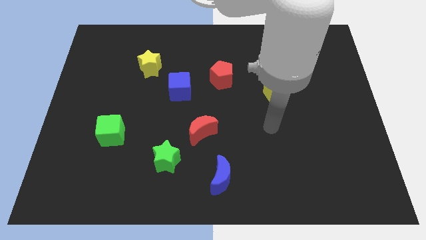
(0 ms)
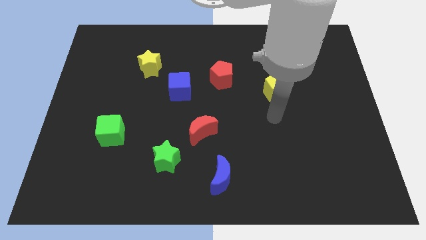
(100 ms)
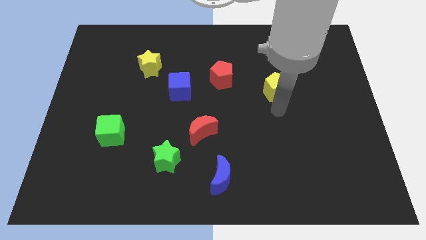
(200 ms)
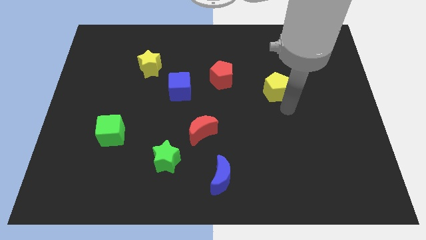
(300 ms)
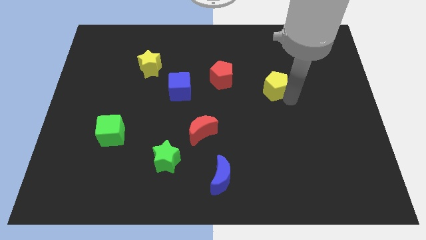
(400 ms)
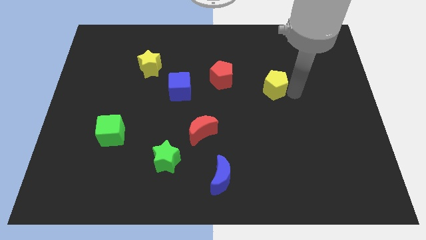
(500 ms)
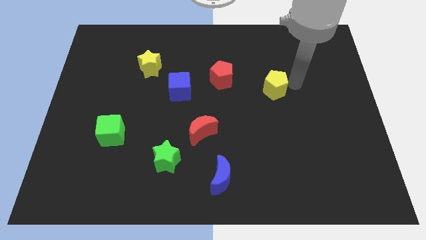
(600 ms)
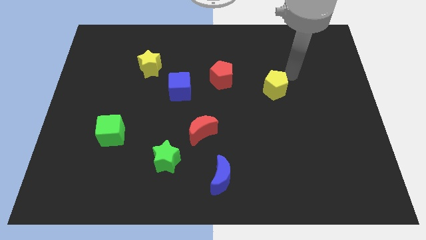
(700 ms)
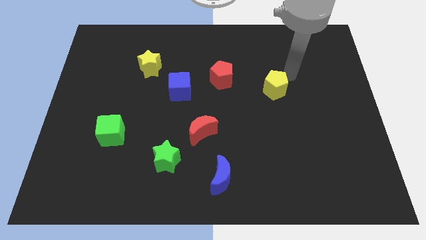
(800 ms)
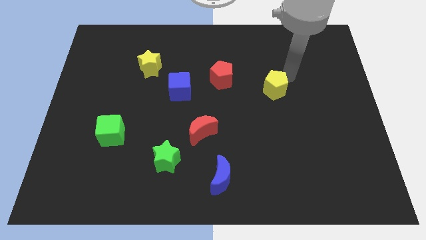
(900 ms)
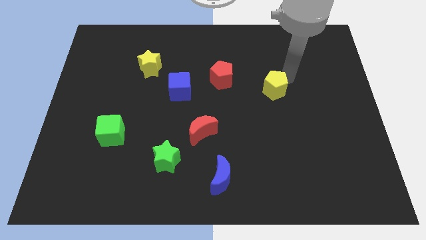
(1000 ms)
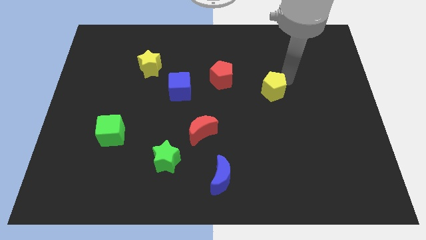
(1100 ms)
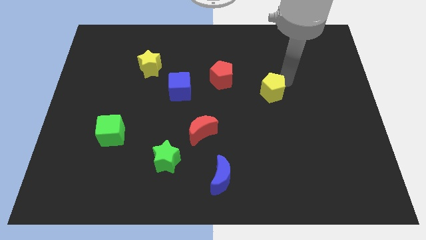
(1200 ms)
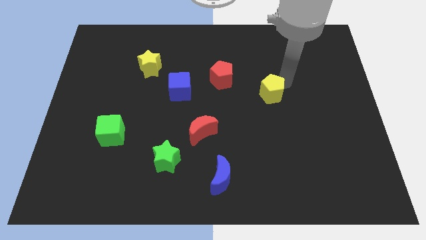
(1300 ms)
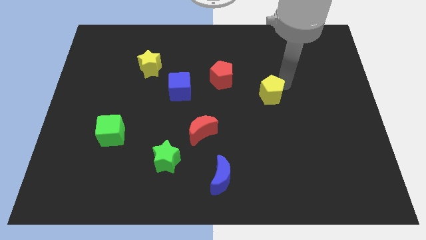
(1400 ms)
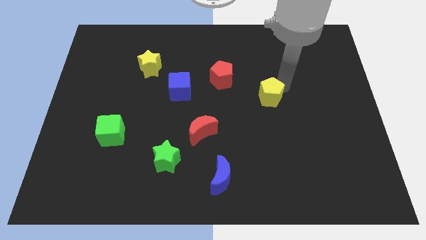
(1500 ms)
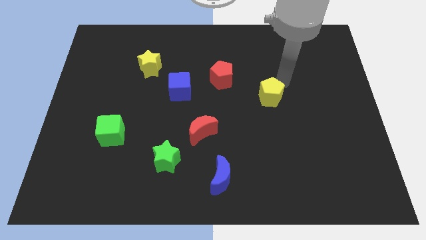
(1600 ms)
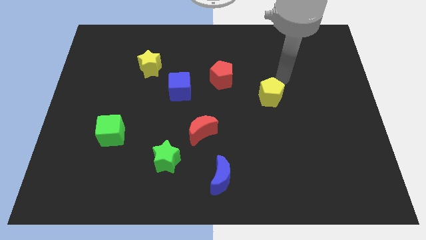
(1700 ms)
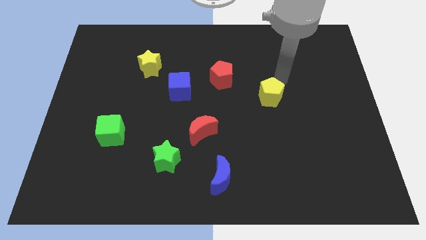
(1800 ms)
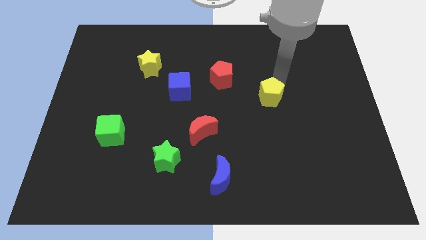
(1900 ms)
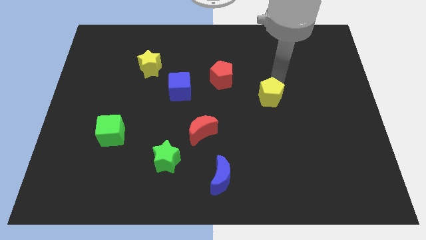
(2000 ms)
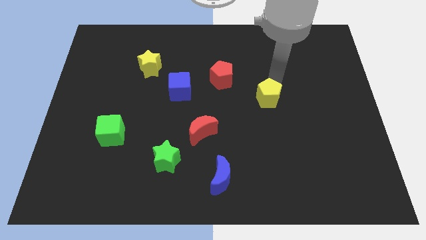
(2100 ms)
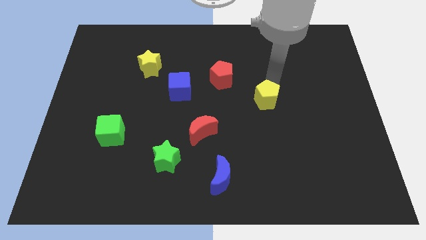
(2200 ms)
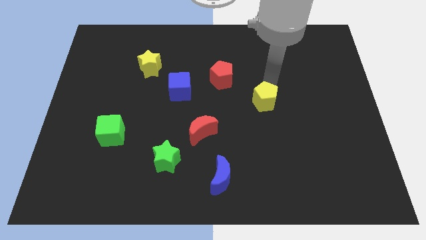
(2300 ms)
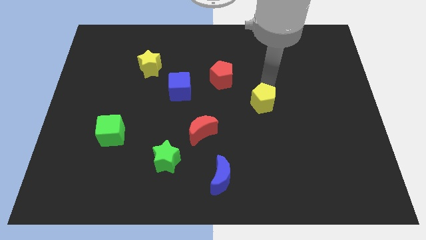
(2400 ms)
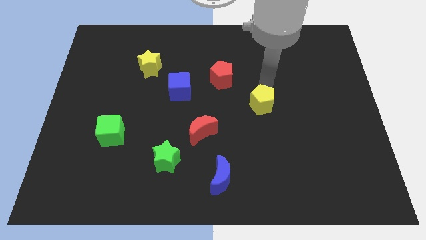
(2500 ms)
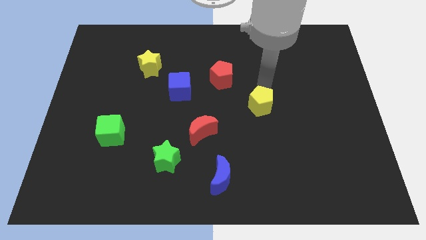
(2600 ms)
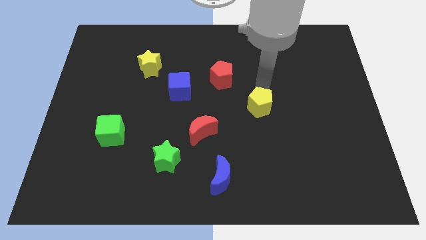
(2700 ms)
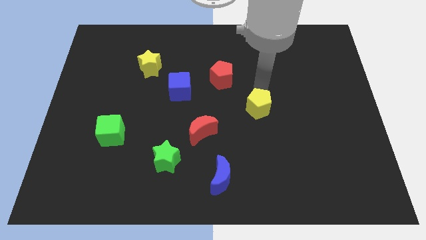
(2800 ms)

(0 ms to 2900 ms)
slightly move the yellow pentagon down and then to the left

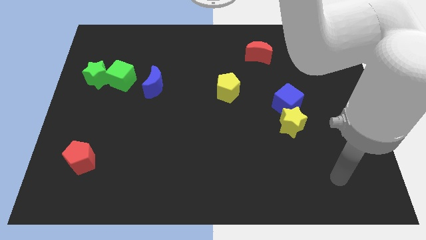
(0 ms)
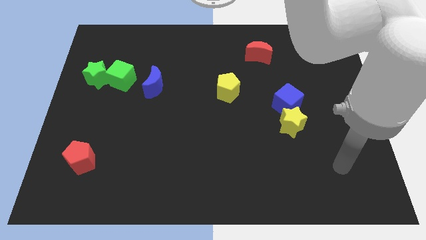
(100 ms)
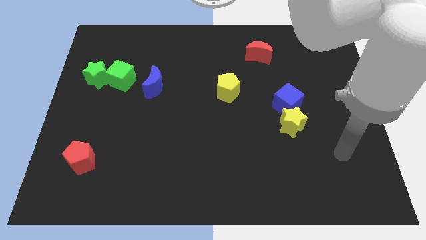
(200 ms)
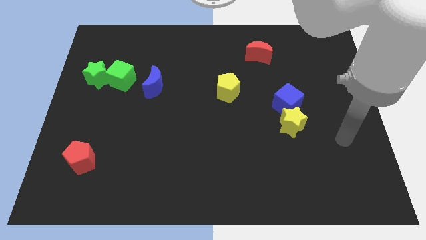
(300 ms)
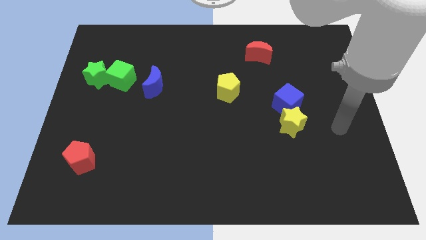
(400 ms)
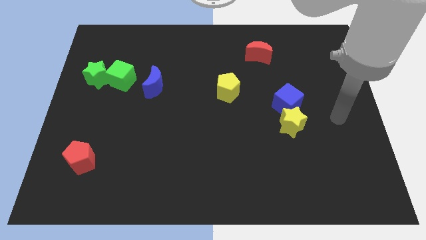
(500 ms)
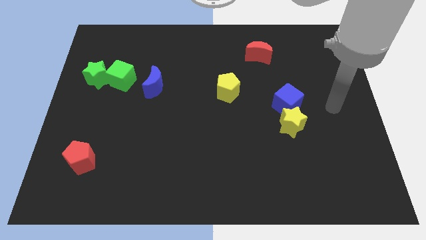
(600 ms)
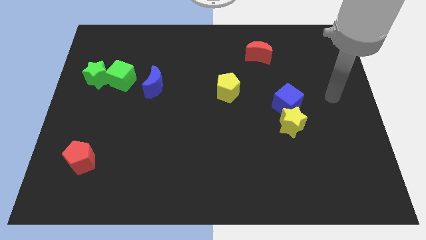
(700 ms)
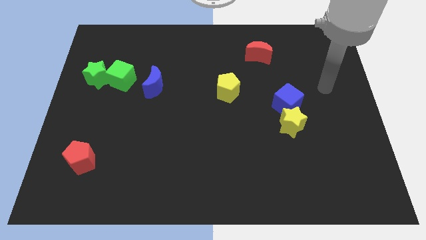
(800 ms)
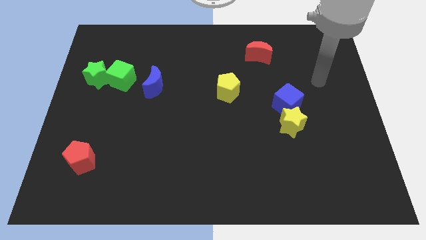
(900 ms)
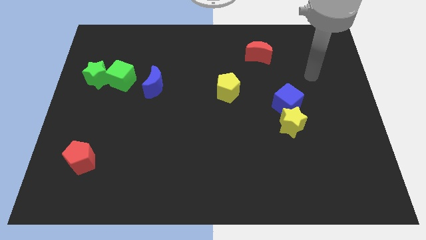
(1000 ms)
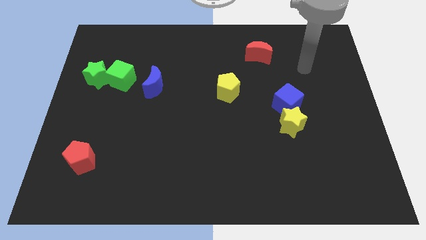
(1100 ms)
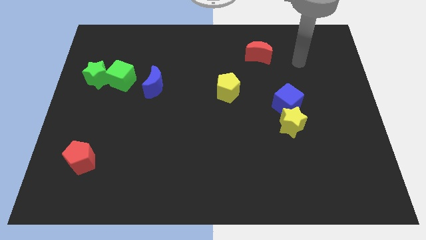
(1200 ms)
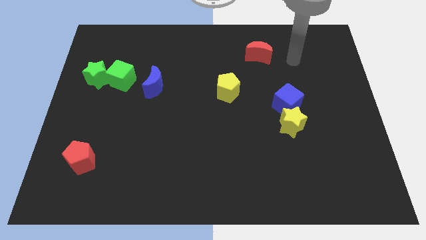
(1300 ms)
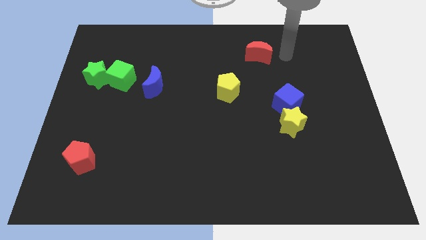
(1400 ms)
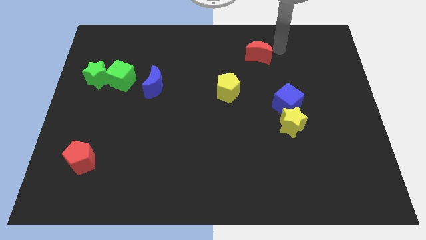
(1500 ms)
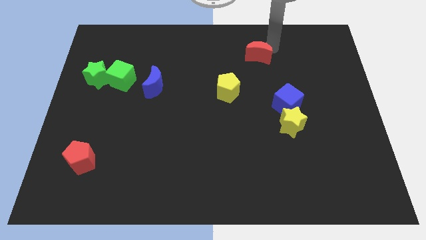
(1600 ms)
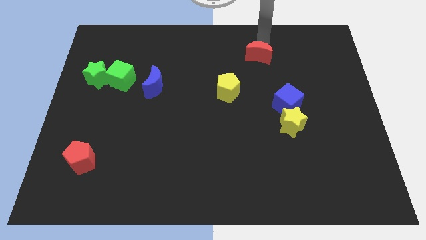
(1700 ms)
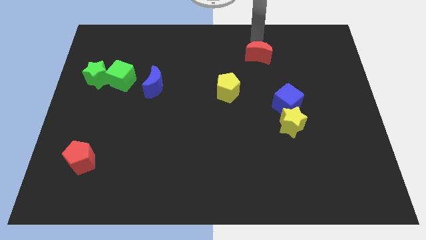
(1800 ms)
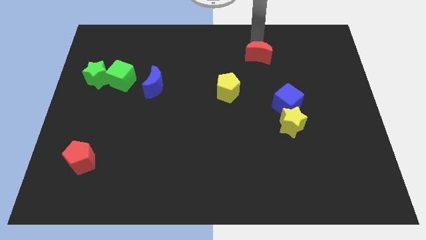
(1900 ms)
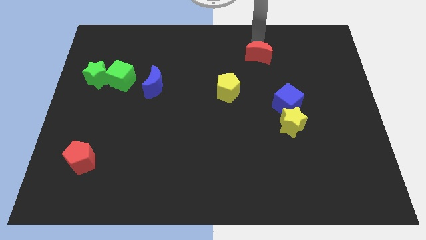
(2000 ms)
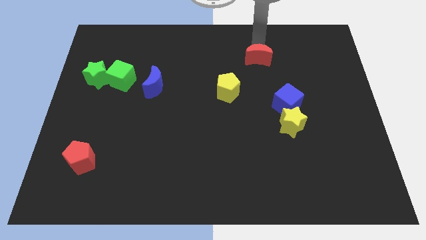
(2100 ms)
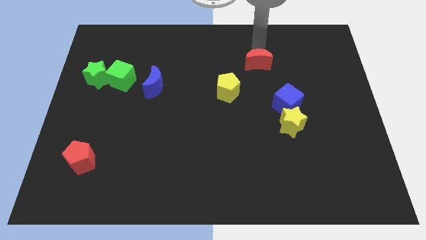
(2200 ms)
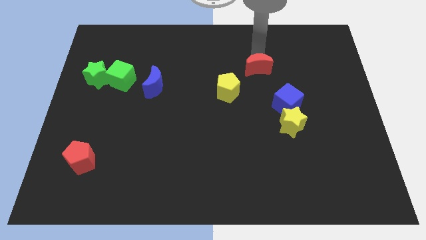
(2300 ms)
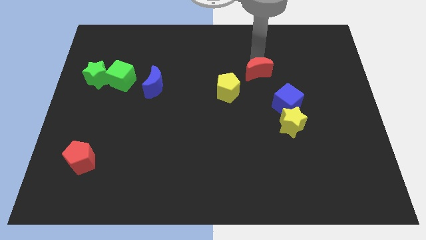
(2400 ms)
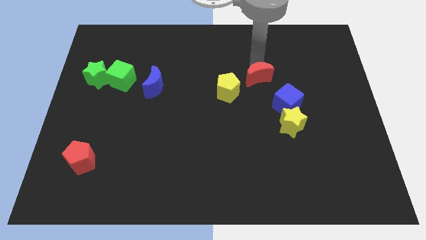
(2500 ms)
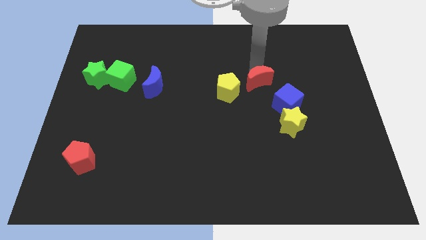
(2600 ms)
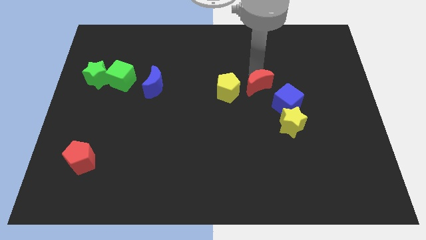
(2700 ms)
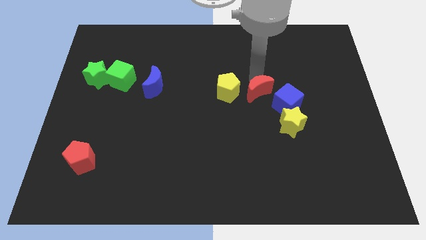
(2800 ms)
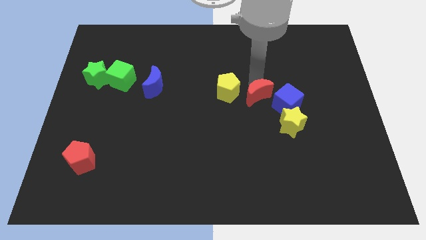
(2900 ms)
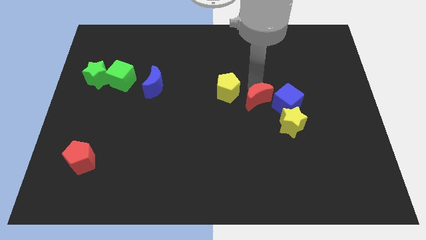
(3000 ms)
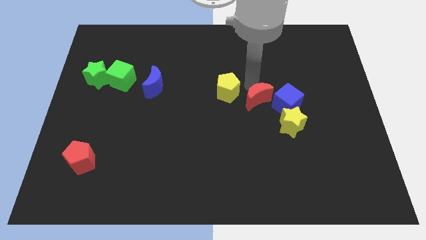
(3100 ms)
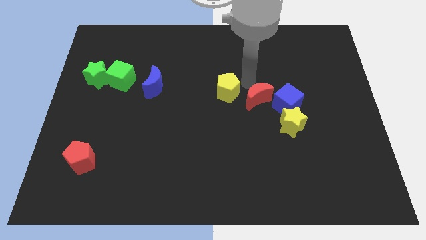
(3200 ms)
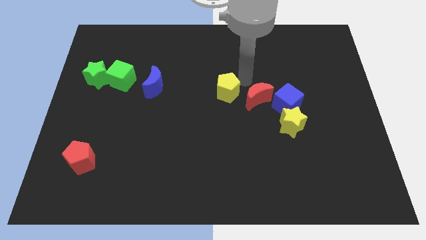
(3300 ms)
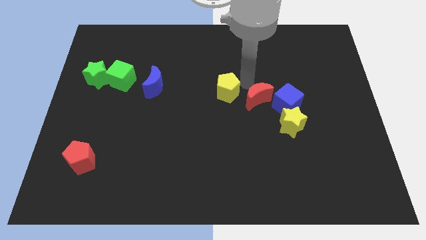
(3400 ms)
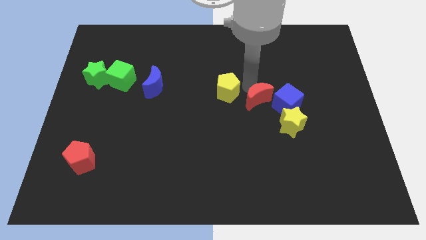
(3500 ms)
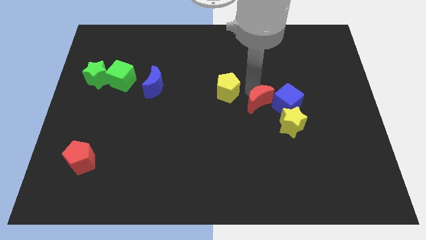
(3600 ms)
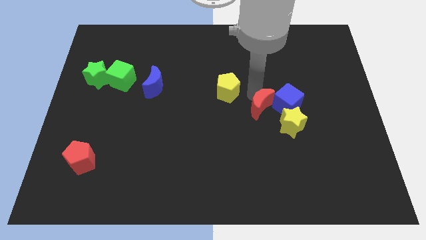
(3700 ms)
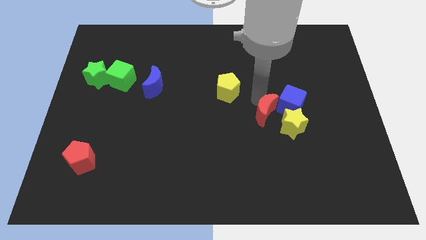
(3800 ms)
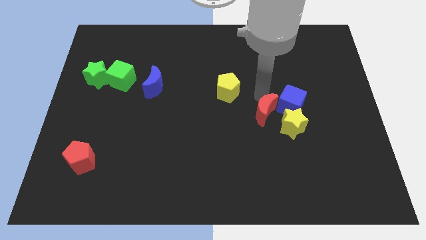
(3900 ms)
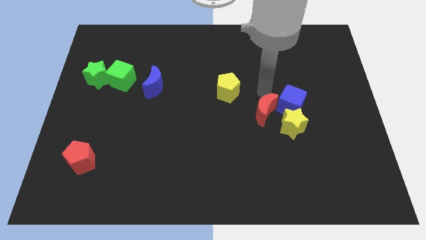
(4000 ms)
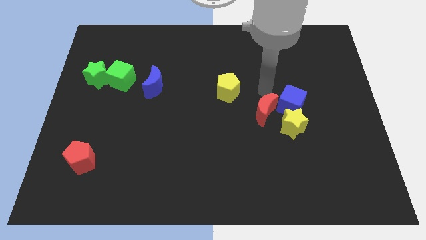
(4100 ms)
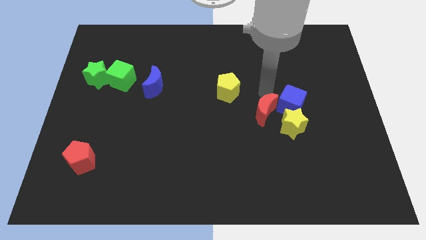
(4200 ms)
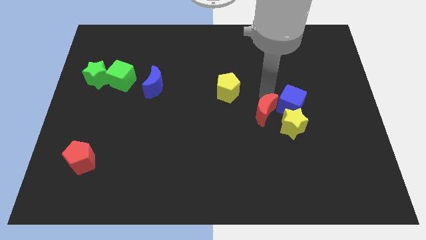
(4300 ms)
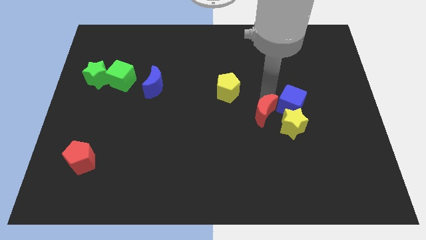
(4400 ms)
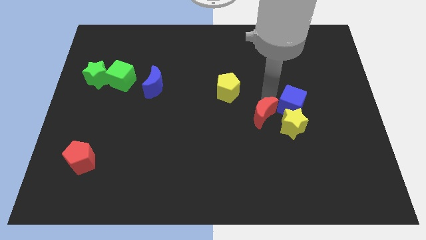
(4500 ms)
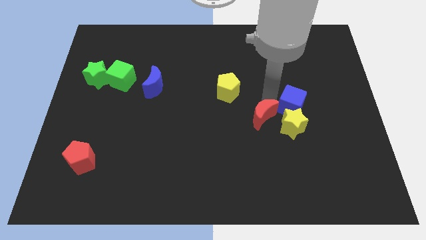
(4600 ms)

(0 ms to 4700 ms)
slide the red moon down

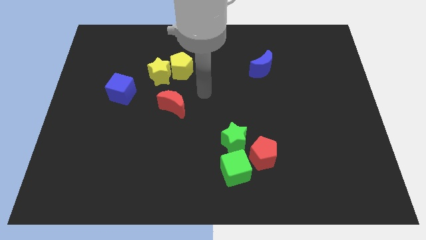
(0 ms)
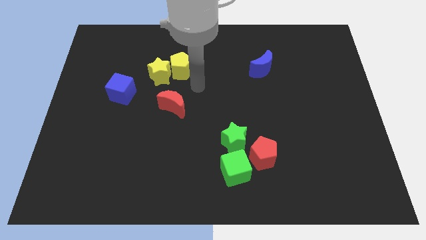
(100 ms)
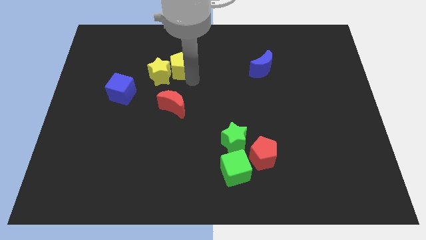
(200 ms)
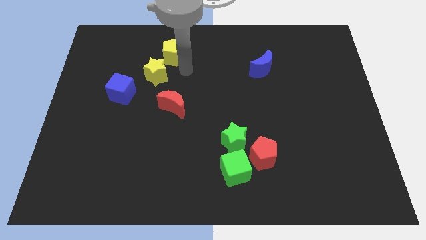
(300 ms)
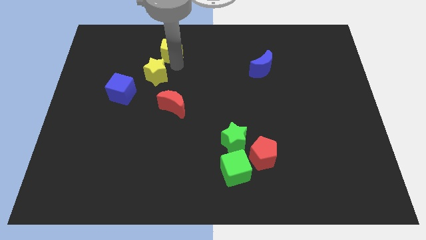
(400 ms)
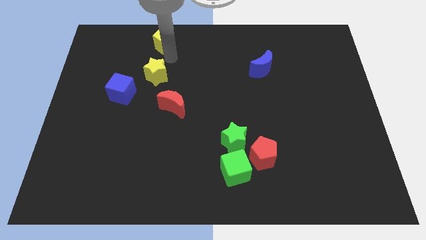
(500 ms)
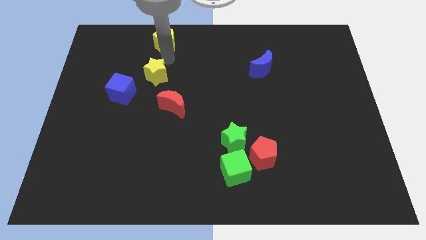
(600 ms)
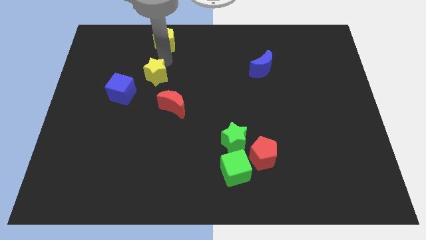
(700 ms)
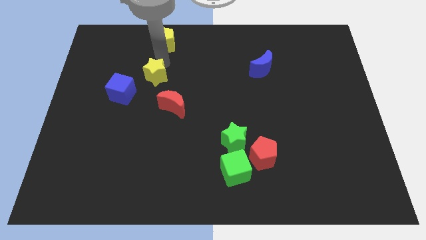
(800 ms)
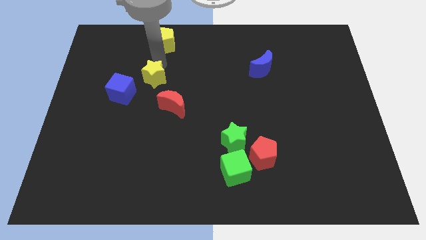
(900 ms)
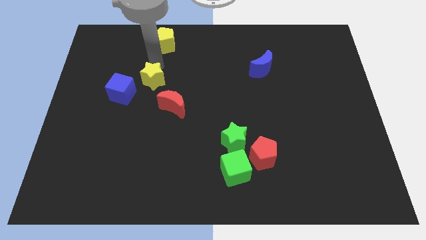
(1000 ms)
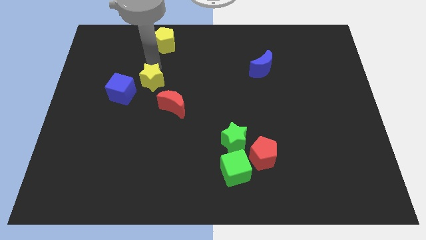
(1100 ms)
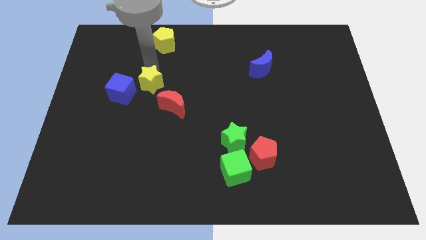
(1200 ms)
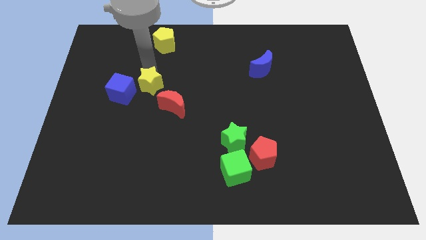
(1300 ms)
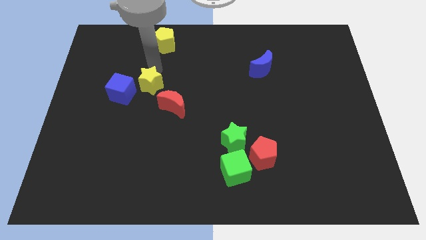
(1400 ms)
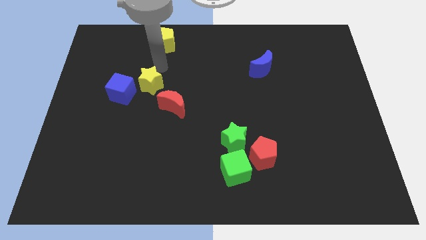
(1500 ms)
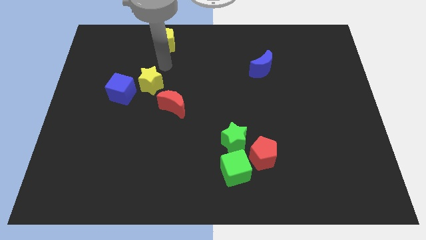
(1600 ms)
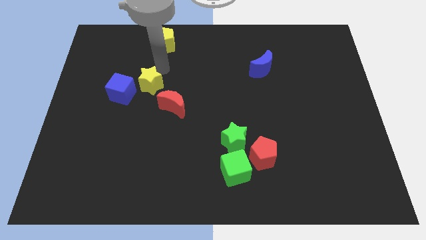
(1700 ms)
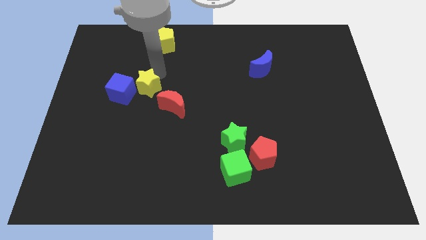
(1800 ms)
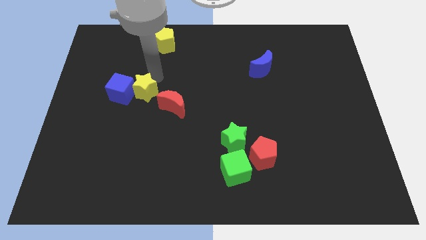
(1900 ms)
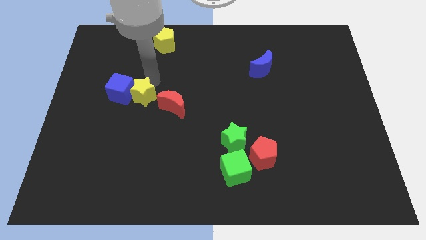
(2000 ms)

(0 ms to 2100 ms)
move the yellow star down and left diagonally somewhat
